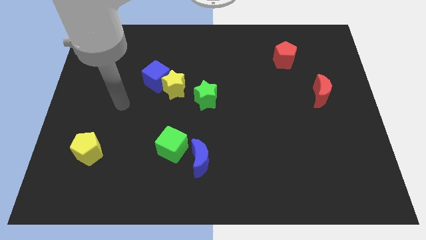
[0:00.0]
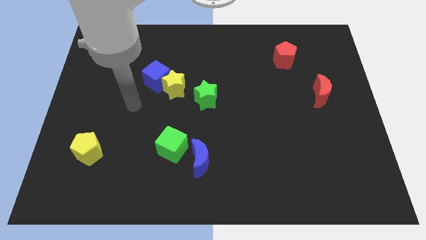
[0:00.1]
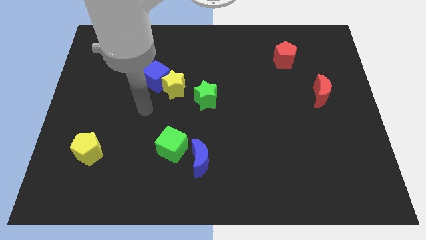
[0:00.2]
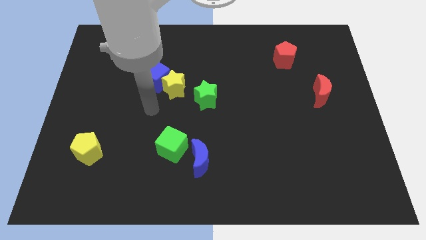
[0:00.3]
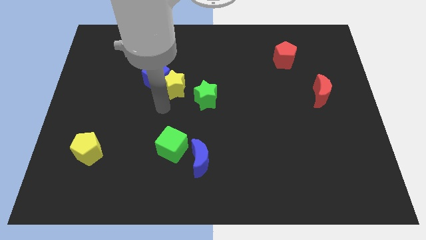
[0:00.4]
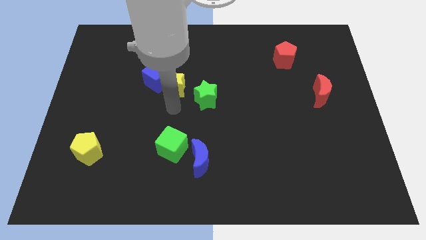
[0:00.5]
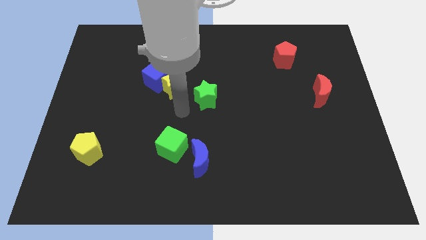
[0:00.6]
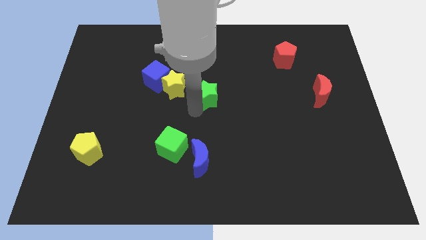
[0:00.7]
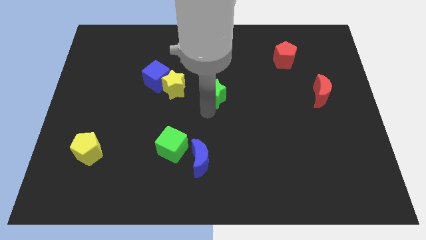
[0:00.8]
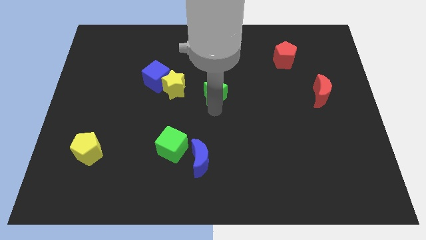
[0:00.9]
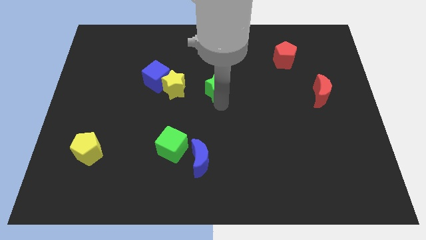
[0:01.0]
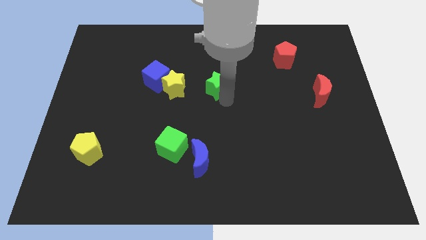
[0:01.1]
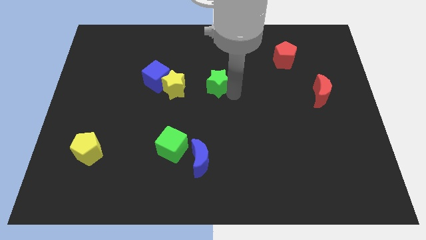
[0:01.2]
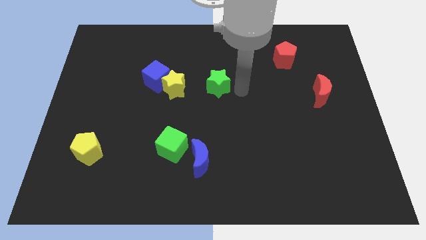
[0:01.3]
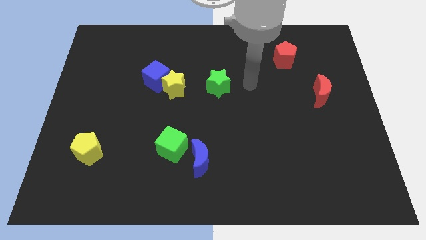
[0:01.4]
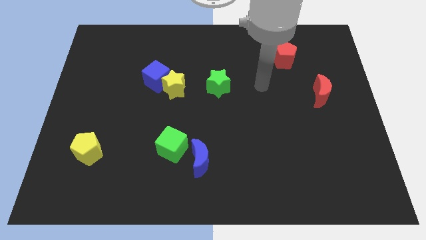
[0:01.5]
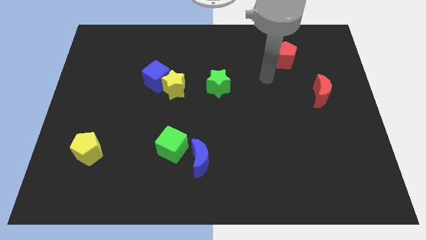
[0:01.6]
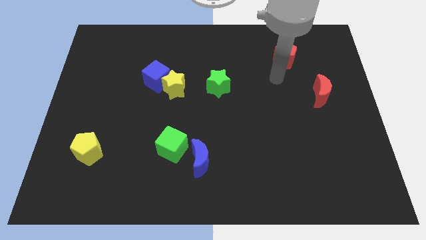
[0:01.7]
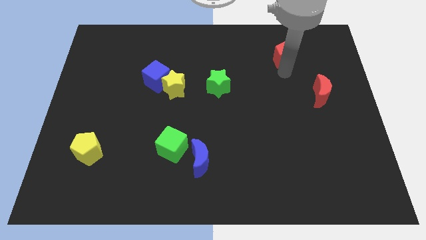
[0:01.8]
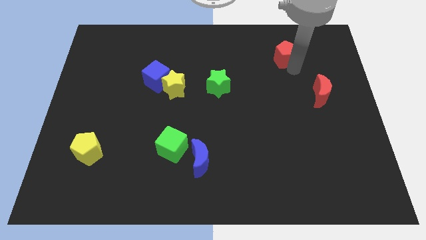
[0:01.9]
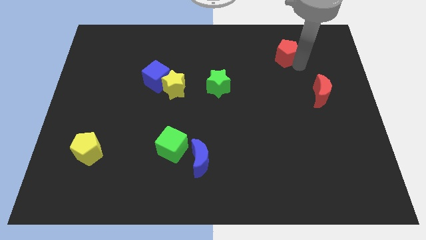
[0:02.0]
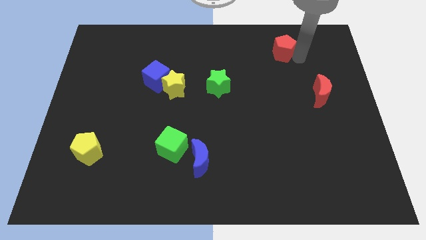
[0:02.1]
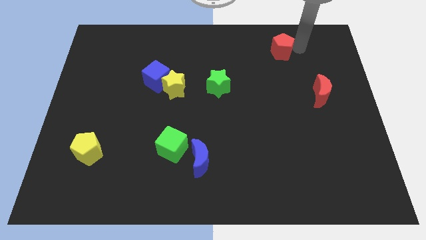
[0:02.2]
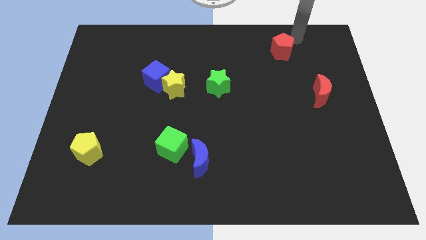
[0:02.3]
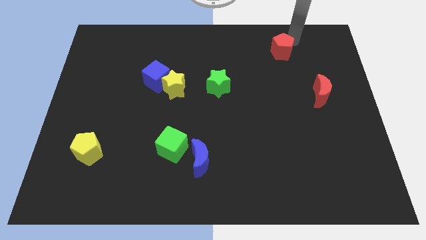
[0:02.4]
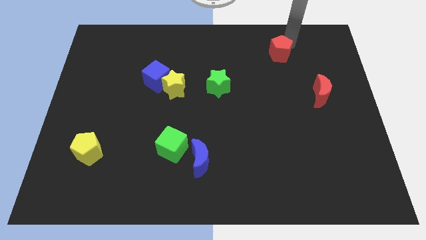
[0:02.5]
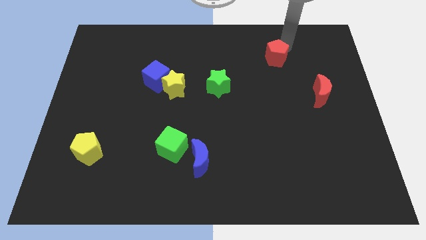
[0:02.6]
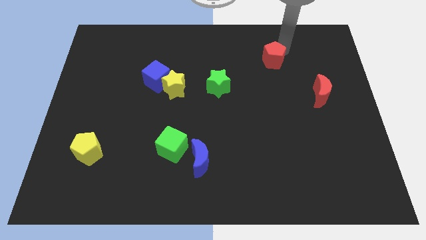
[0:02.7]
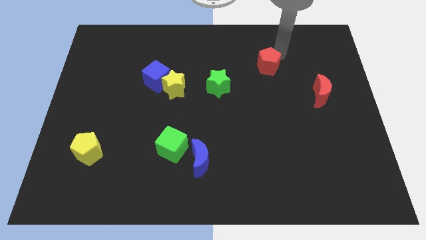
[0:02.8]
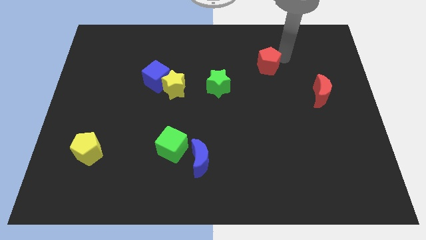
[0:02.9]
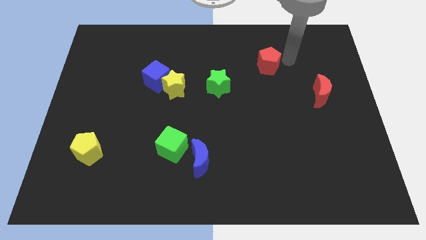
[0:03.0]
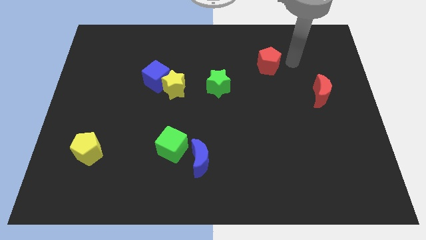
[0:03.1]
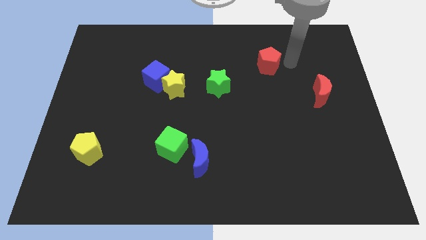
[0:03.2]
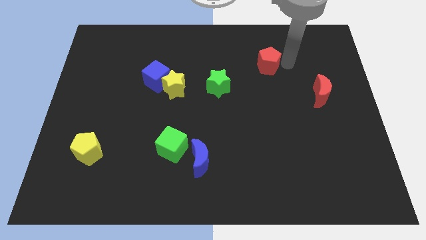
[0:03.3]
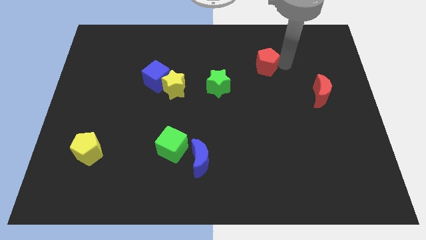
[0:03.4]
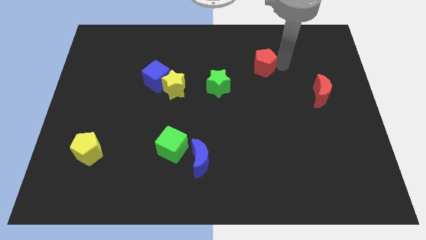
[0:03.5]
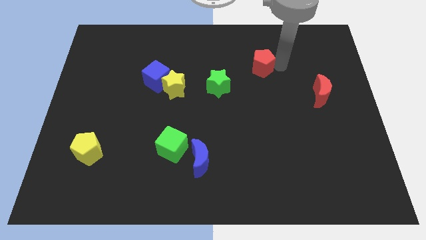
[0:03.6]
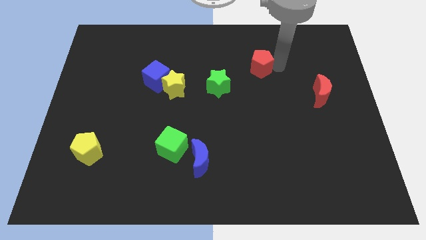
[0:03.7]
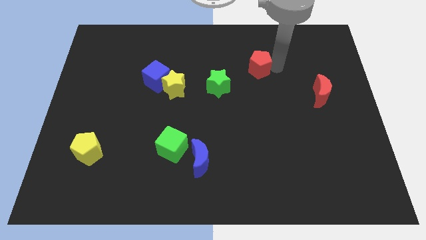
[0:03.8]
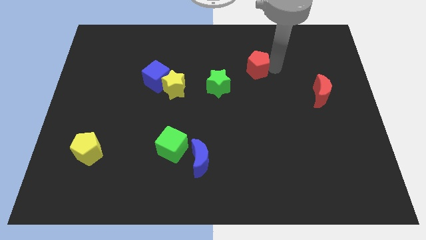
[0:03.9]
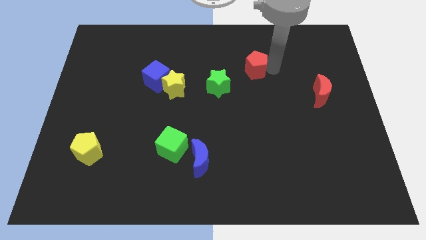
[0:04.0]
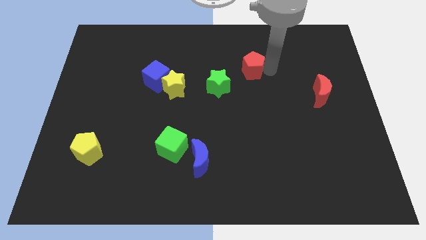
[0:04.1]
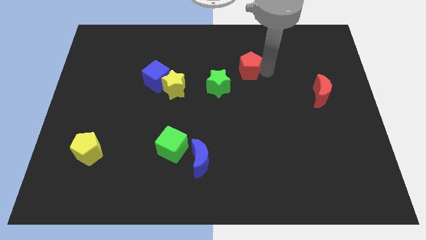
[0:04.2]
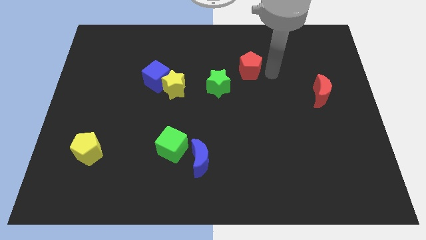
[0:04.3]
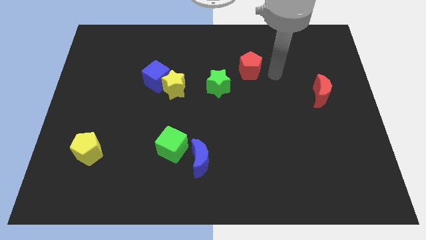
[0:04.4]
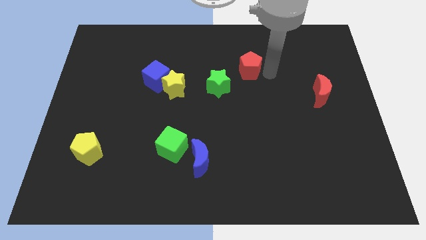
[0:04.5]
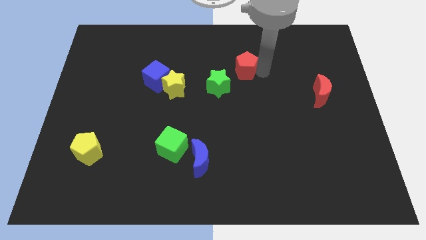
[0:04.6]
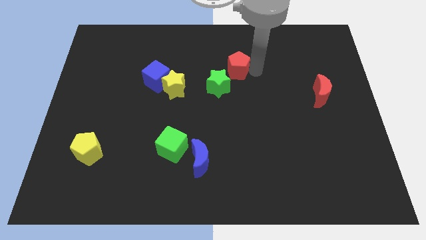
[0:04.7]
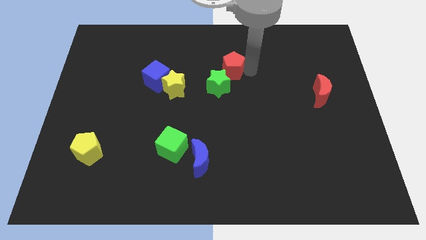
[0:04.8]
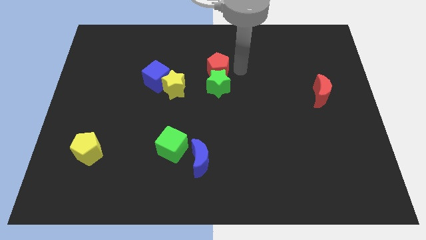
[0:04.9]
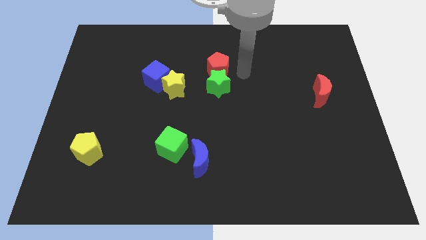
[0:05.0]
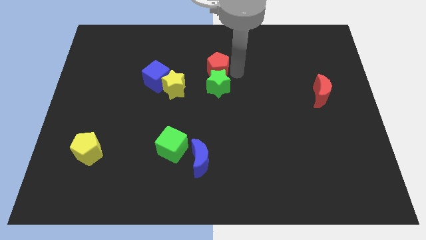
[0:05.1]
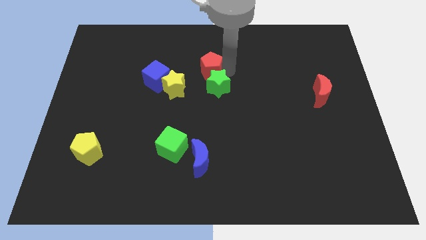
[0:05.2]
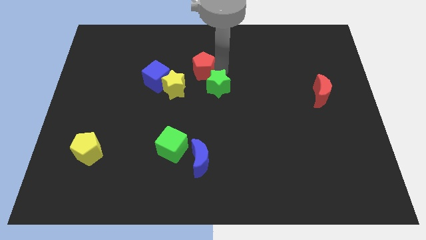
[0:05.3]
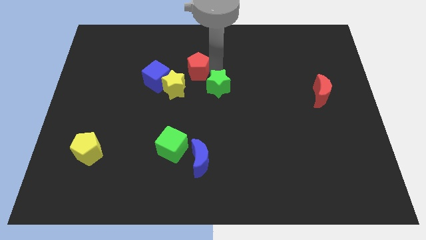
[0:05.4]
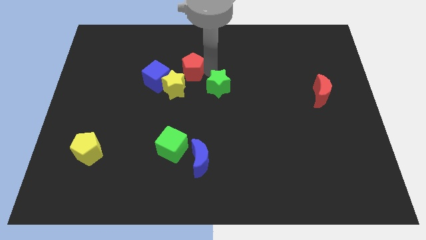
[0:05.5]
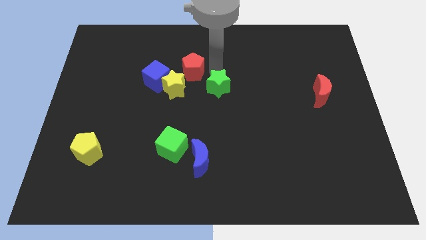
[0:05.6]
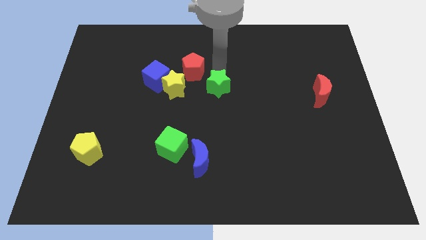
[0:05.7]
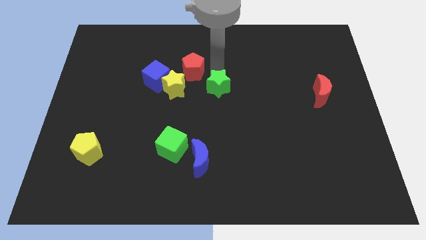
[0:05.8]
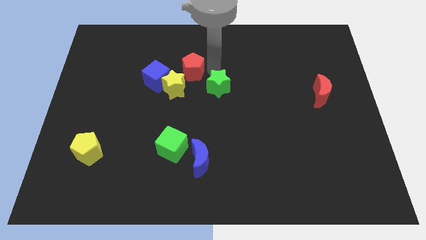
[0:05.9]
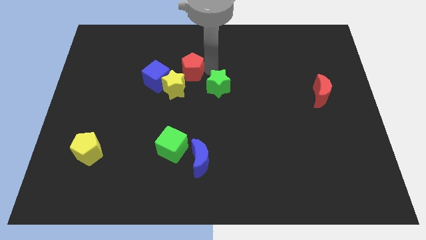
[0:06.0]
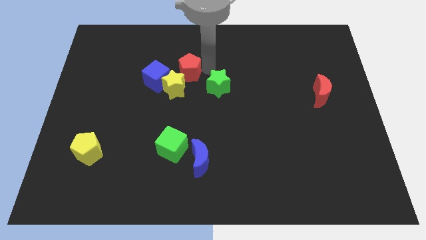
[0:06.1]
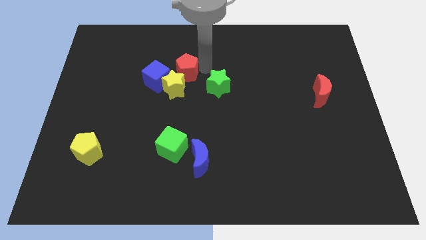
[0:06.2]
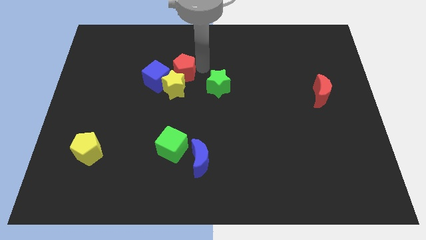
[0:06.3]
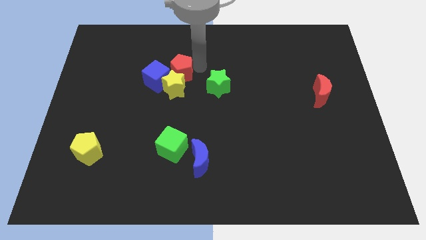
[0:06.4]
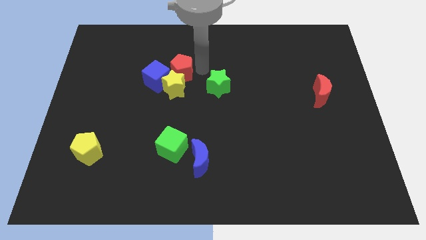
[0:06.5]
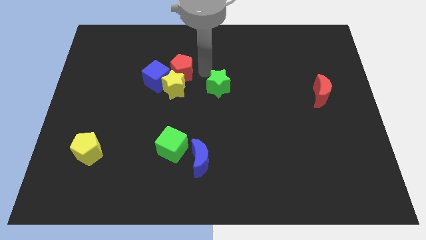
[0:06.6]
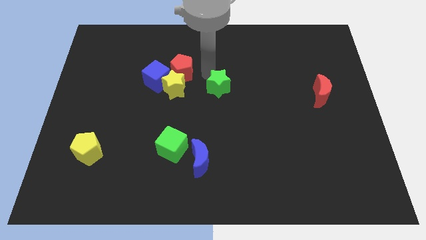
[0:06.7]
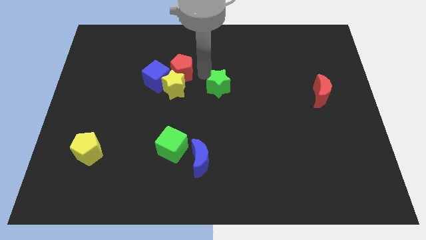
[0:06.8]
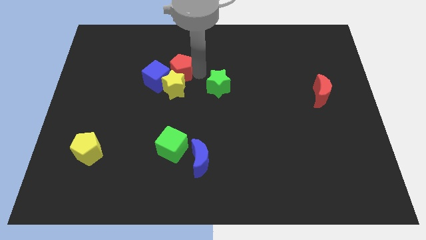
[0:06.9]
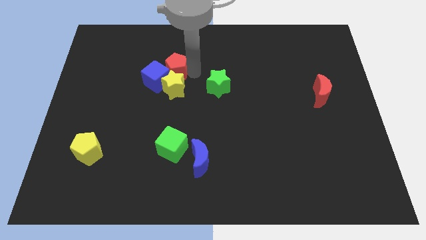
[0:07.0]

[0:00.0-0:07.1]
slide the red pentagon next to the blue cube
